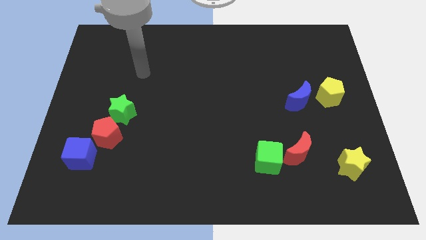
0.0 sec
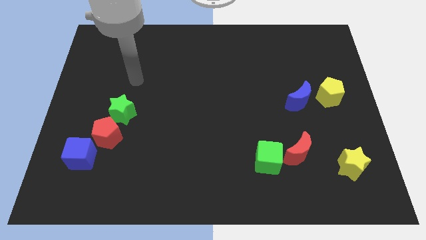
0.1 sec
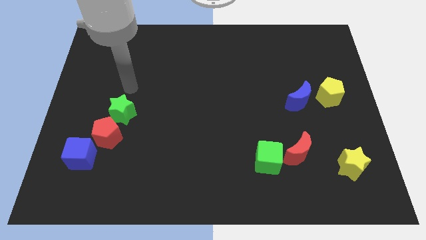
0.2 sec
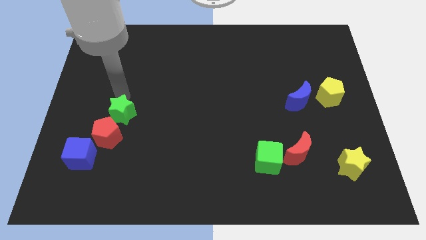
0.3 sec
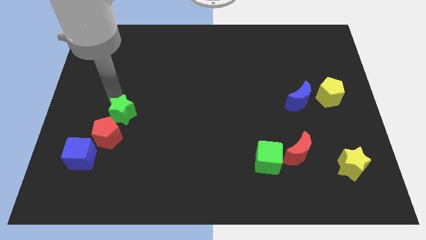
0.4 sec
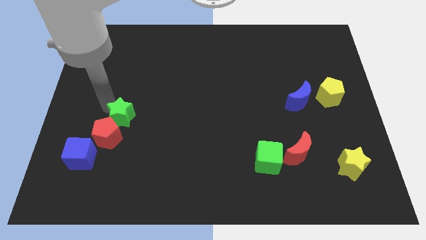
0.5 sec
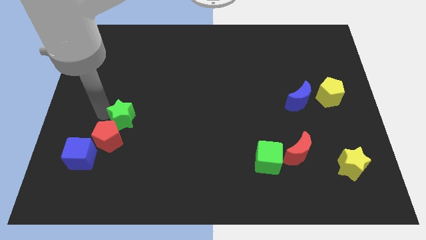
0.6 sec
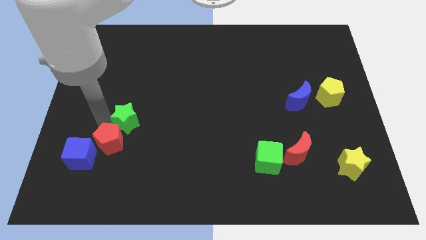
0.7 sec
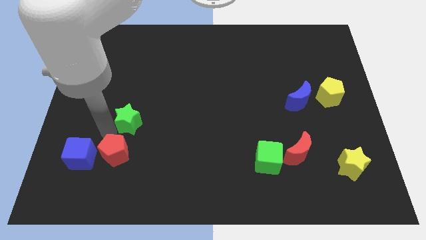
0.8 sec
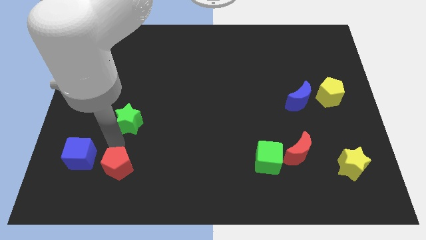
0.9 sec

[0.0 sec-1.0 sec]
pull the green star apart from the red pentagon

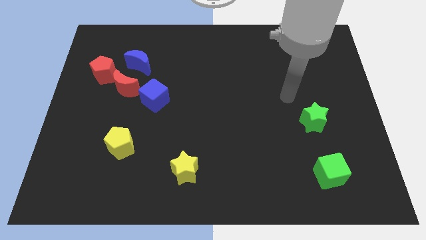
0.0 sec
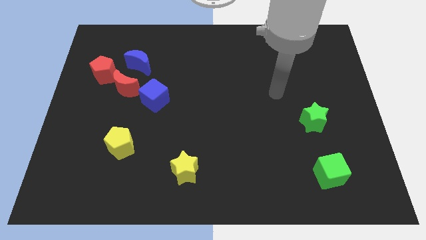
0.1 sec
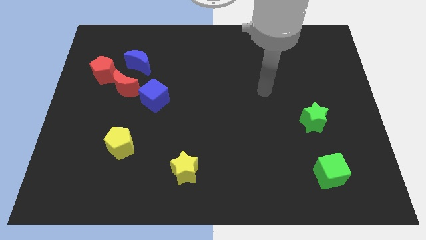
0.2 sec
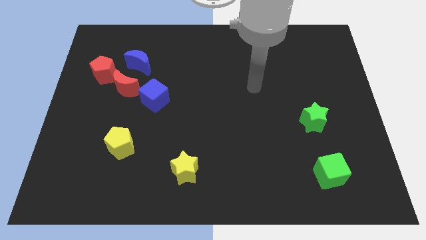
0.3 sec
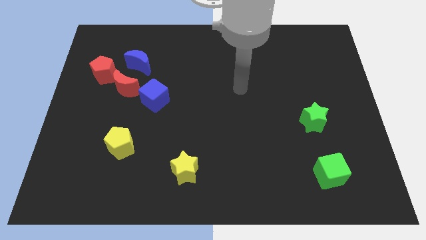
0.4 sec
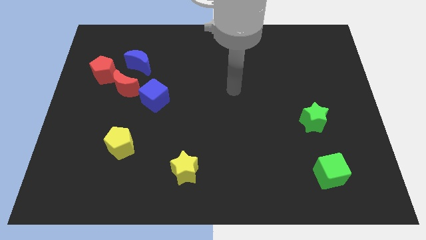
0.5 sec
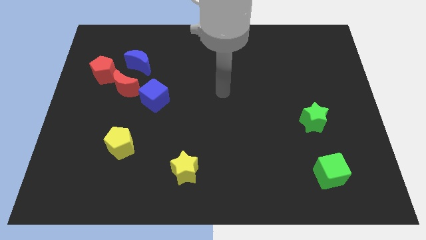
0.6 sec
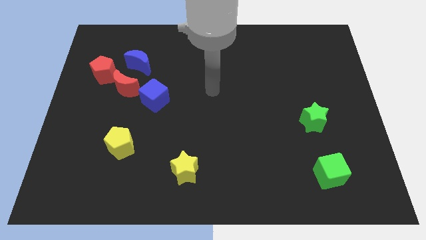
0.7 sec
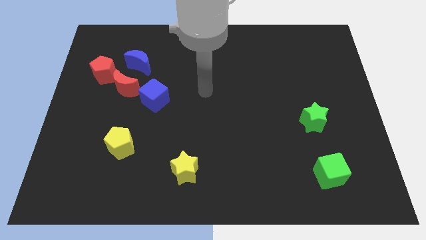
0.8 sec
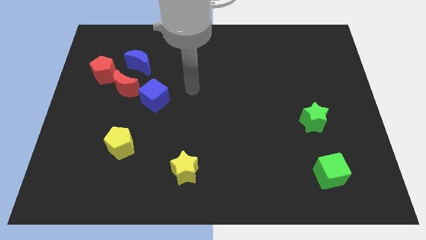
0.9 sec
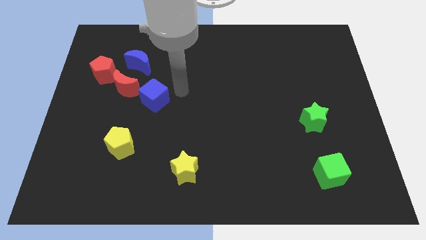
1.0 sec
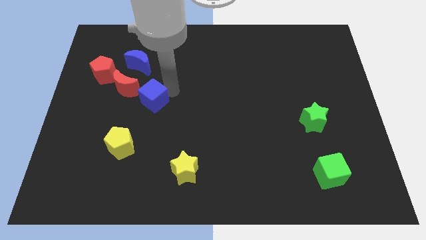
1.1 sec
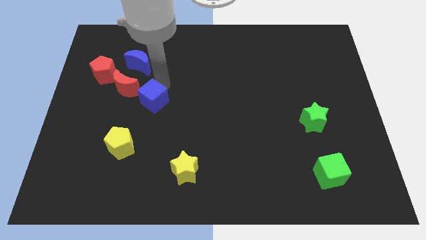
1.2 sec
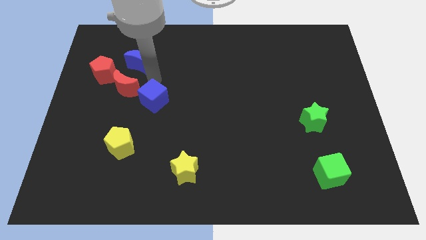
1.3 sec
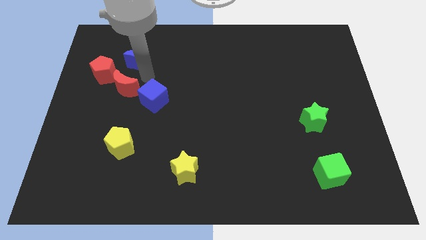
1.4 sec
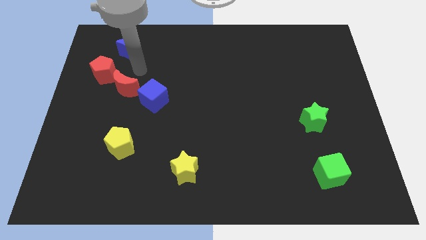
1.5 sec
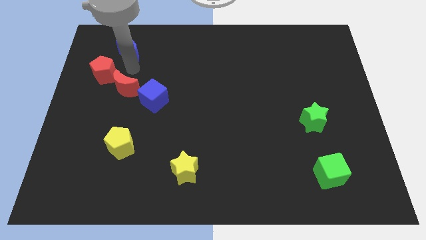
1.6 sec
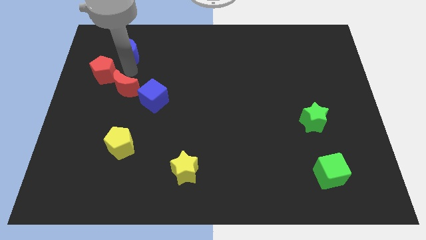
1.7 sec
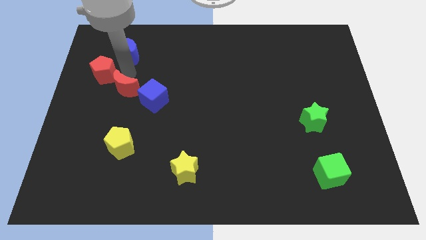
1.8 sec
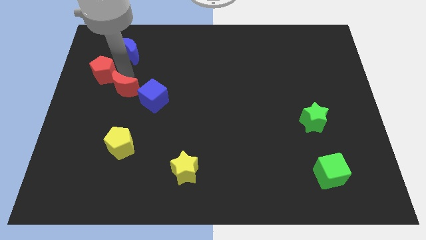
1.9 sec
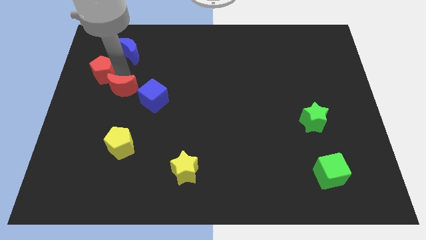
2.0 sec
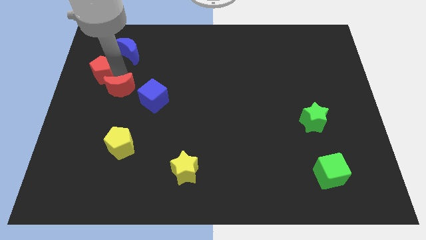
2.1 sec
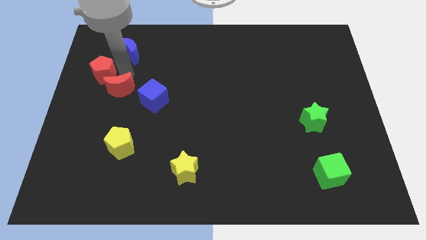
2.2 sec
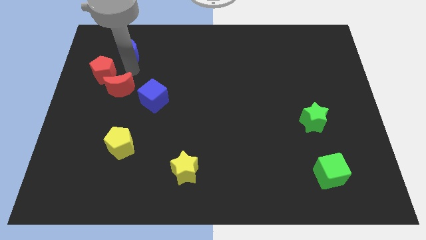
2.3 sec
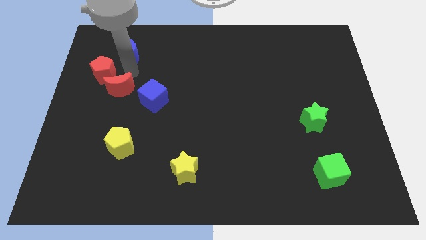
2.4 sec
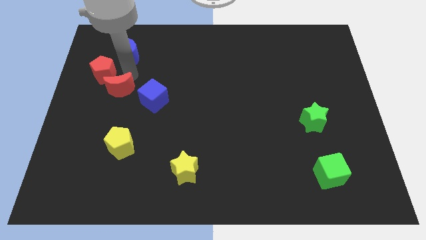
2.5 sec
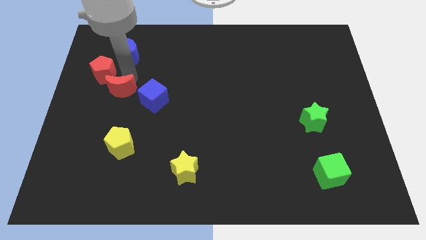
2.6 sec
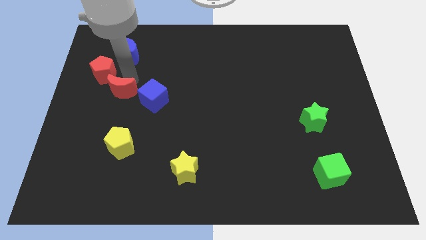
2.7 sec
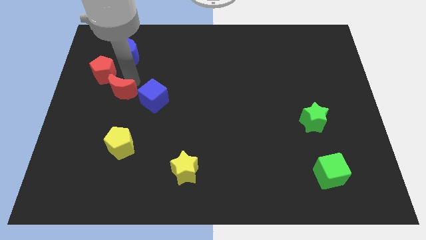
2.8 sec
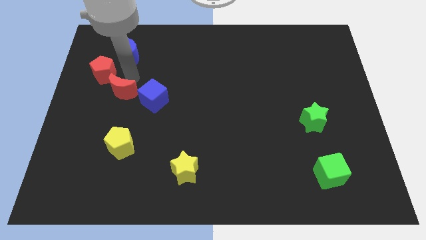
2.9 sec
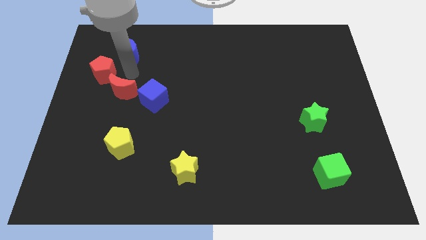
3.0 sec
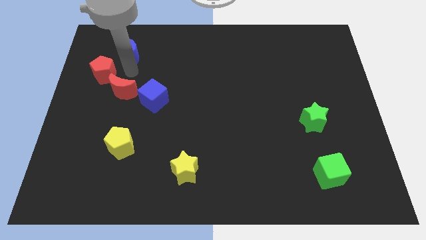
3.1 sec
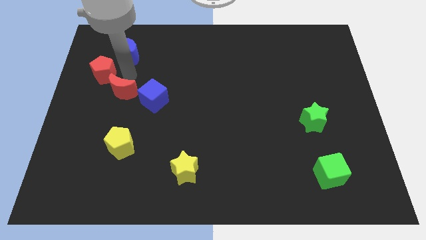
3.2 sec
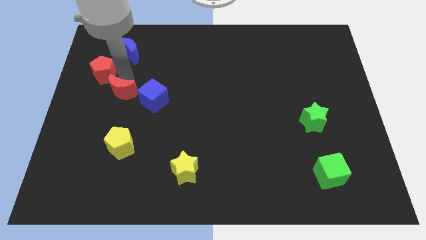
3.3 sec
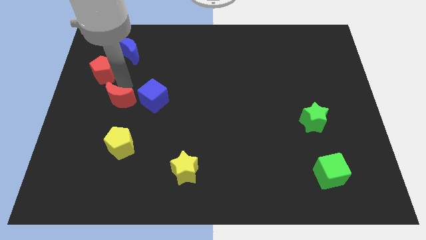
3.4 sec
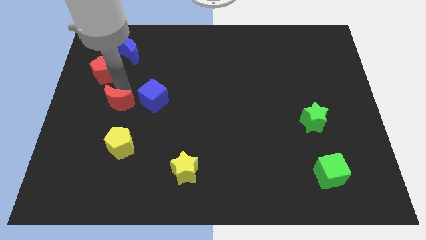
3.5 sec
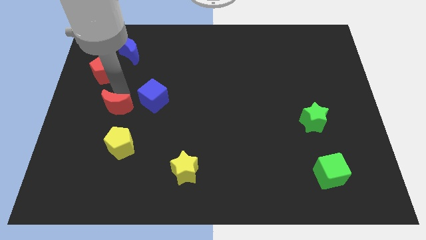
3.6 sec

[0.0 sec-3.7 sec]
separate the red moon from the red pentagon, blue cube, and blue moon

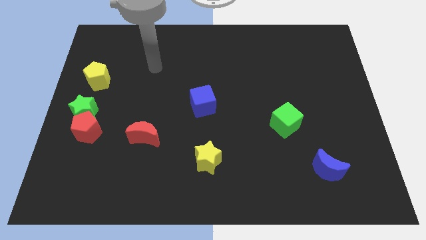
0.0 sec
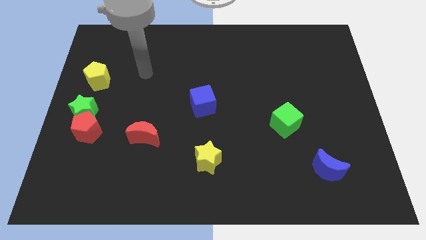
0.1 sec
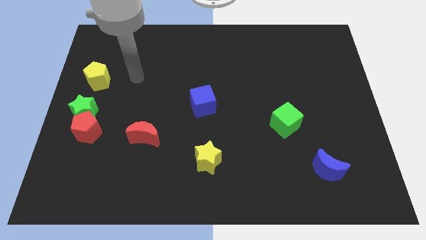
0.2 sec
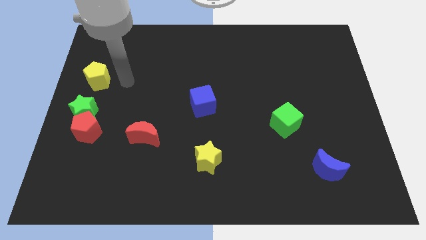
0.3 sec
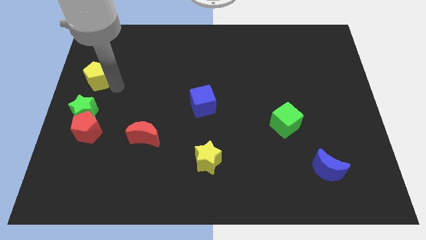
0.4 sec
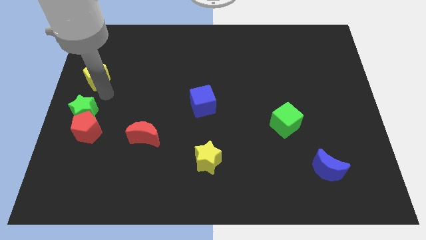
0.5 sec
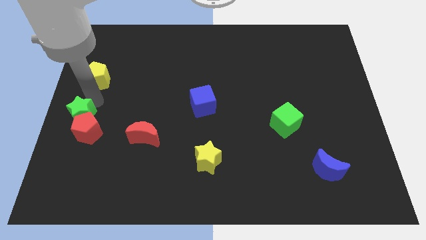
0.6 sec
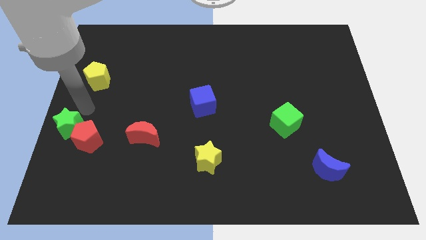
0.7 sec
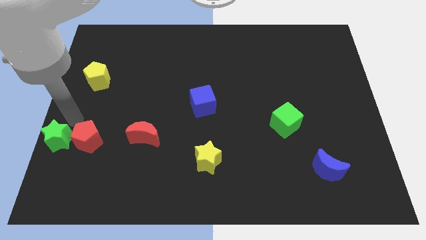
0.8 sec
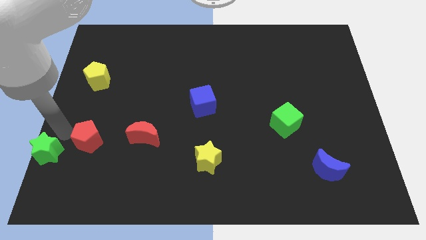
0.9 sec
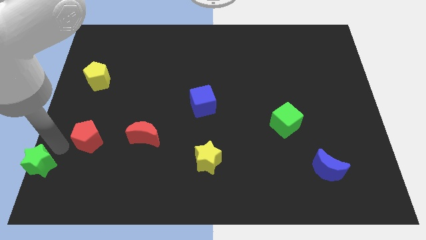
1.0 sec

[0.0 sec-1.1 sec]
move the red pentagon away from the green star

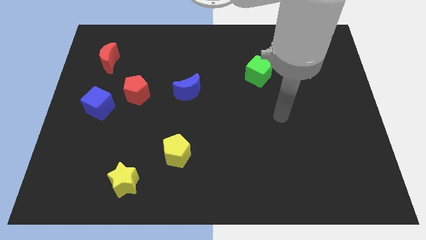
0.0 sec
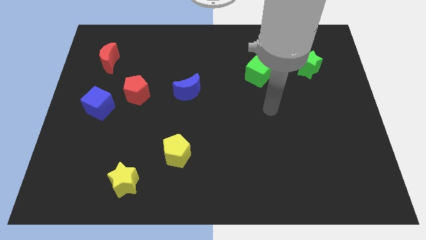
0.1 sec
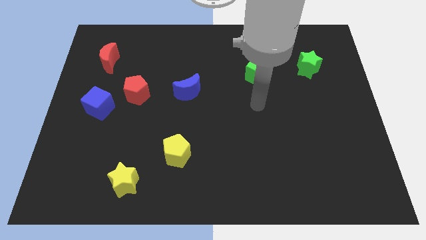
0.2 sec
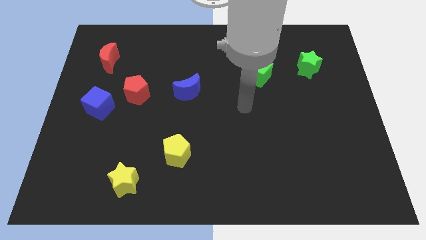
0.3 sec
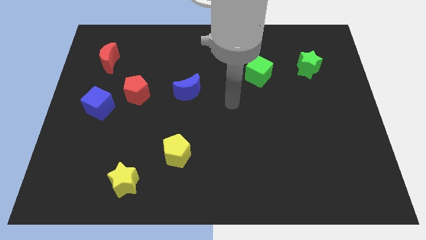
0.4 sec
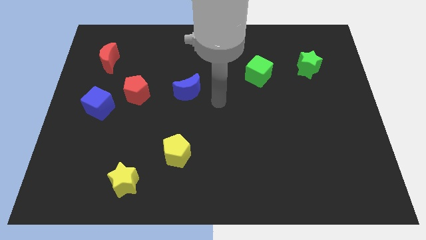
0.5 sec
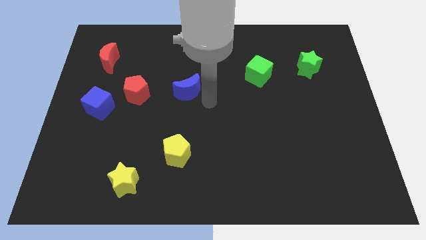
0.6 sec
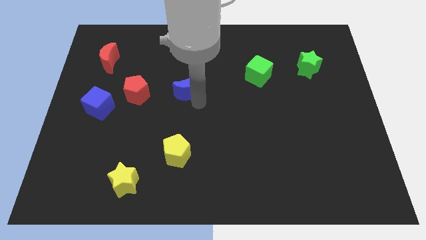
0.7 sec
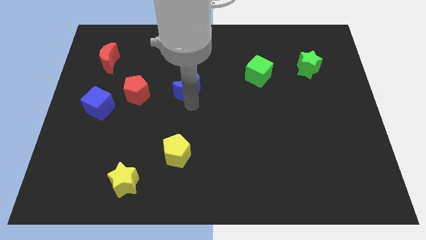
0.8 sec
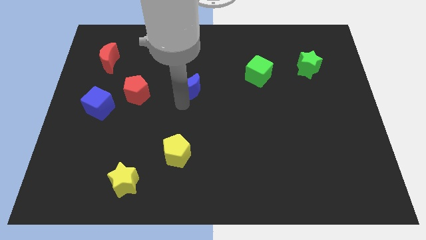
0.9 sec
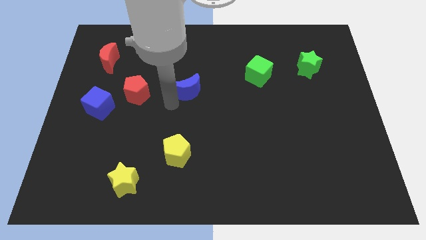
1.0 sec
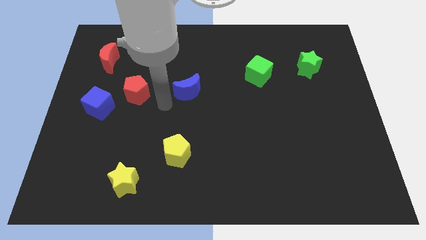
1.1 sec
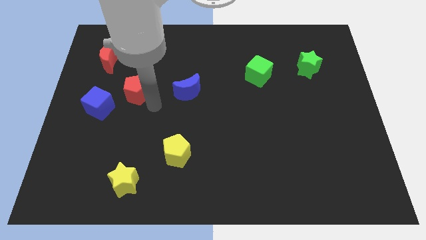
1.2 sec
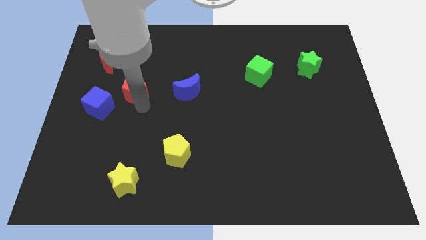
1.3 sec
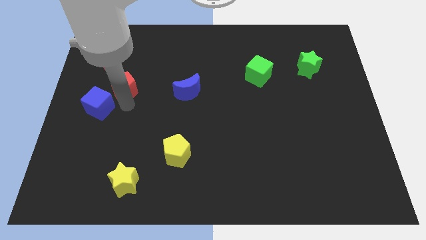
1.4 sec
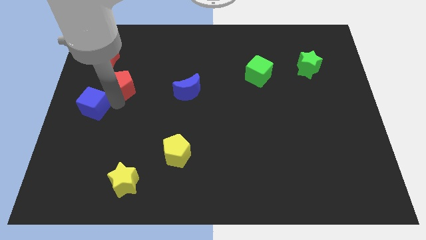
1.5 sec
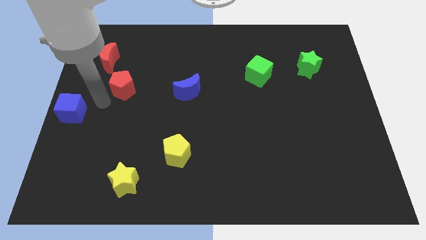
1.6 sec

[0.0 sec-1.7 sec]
separate the red pentagon from the blue cube

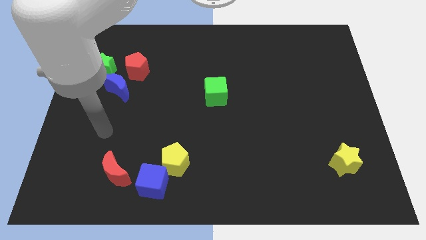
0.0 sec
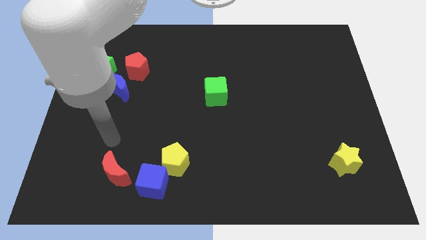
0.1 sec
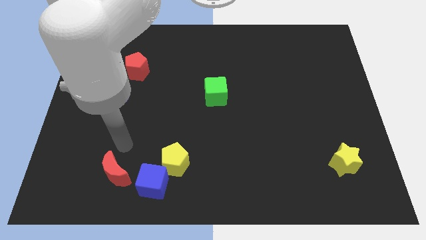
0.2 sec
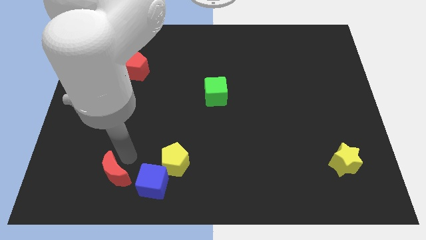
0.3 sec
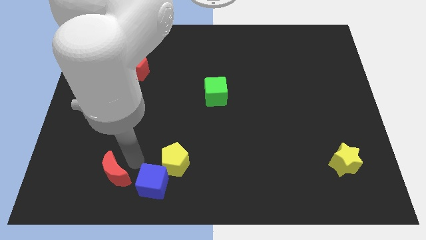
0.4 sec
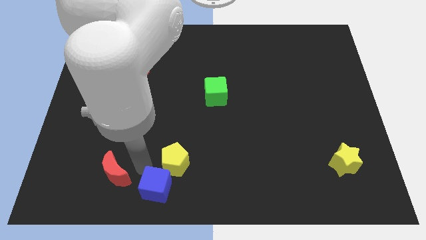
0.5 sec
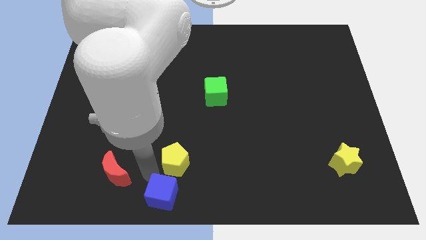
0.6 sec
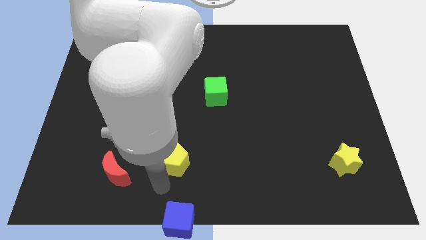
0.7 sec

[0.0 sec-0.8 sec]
move the yellow pentagon away from the blue cube

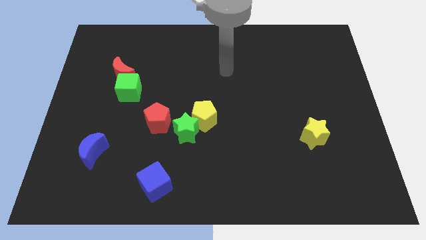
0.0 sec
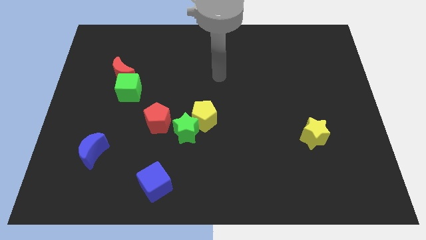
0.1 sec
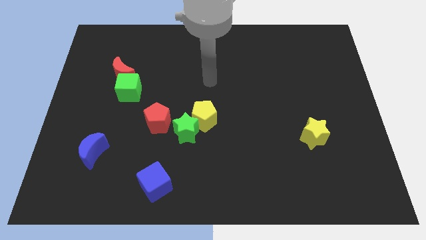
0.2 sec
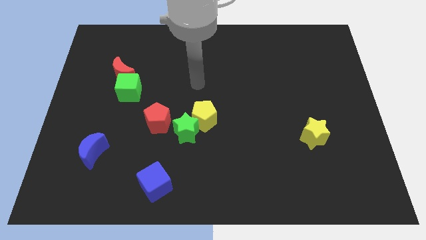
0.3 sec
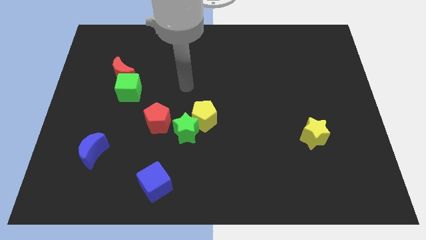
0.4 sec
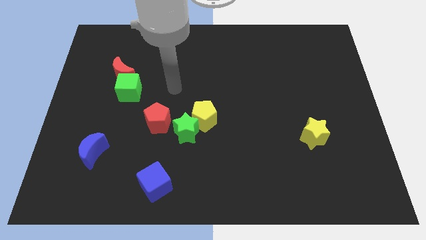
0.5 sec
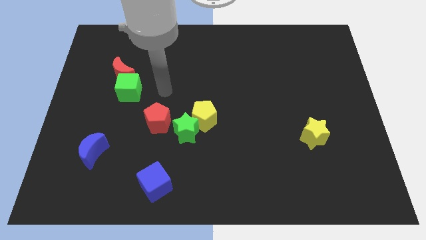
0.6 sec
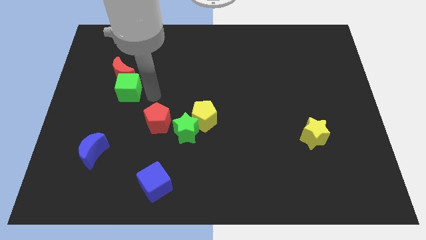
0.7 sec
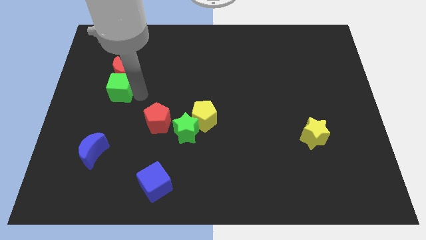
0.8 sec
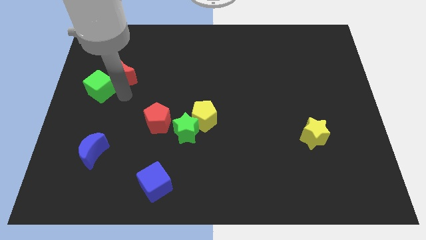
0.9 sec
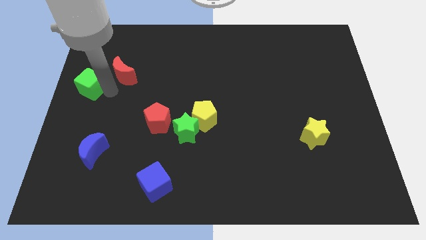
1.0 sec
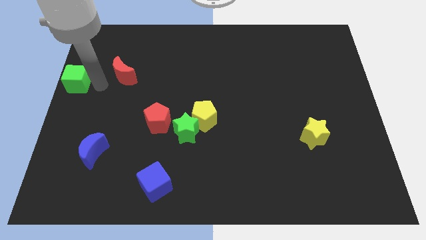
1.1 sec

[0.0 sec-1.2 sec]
pull the red moon apart from the green cube
